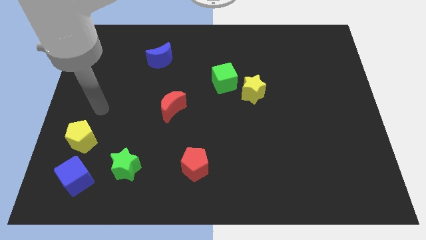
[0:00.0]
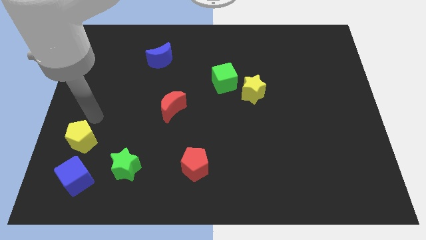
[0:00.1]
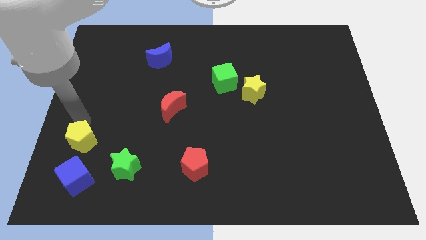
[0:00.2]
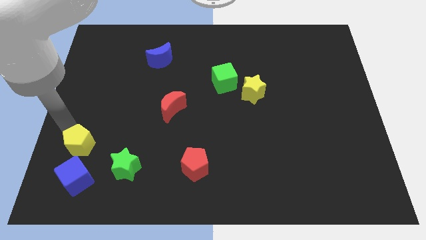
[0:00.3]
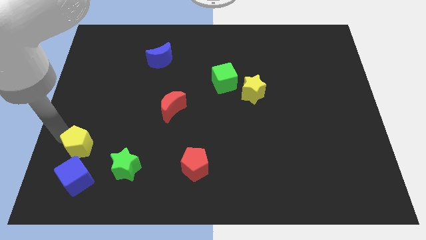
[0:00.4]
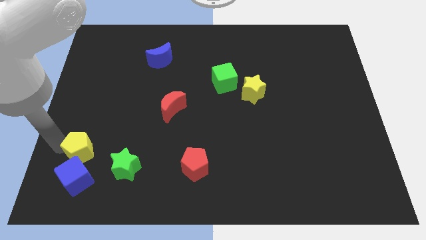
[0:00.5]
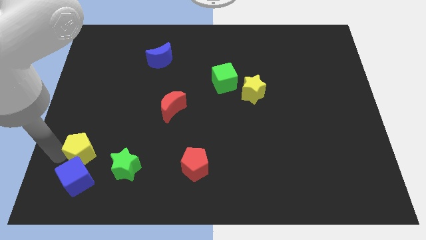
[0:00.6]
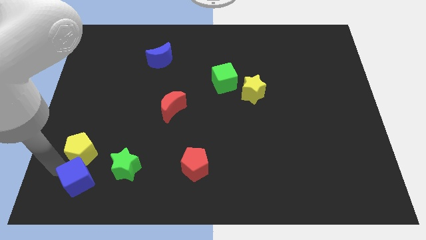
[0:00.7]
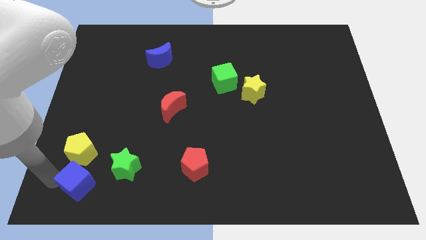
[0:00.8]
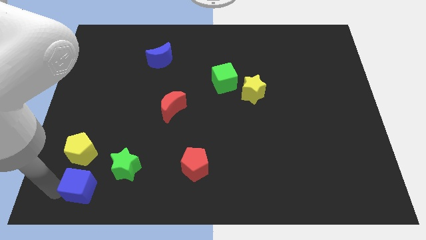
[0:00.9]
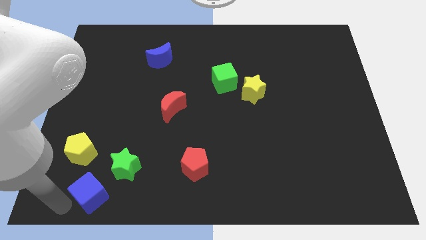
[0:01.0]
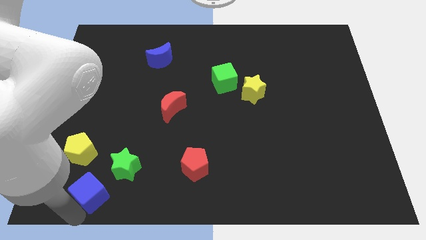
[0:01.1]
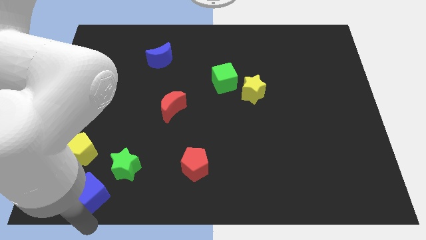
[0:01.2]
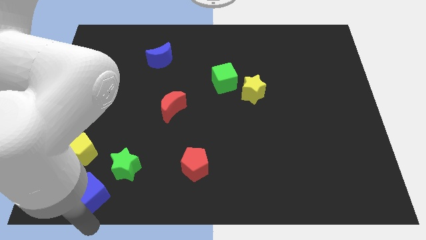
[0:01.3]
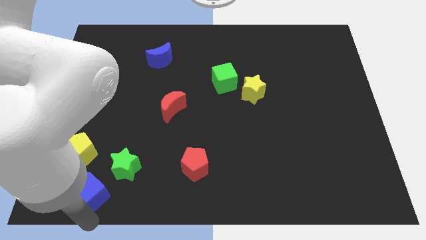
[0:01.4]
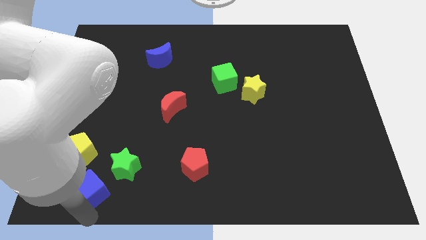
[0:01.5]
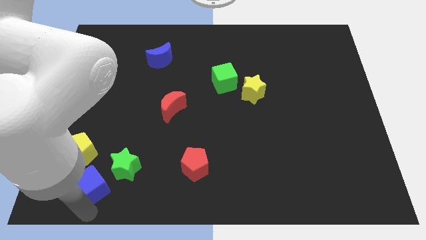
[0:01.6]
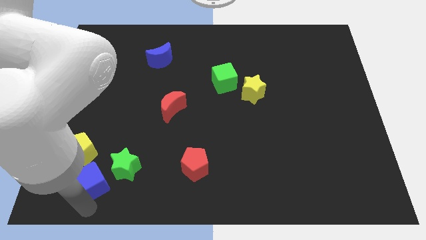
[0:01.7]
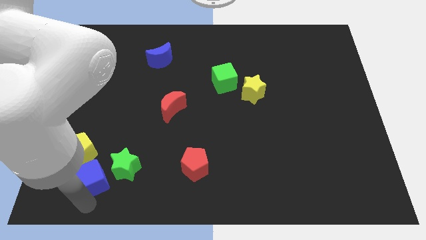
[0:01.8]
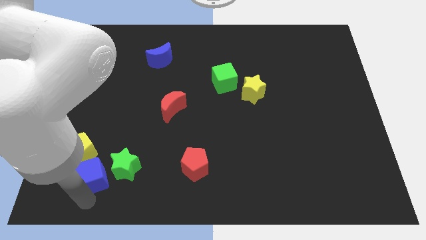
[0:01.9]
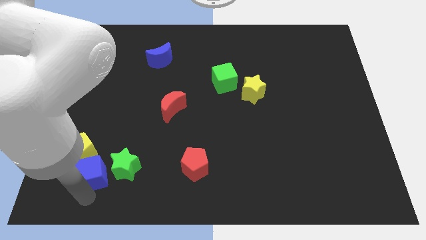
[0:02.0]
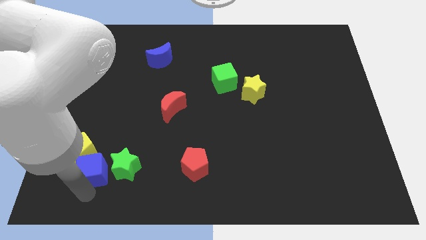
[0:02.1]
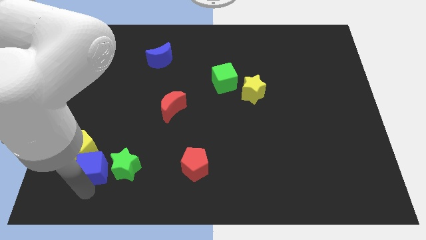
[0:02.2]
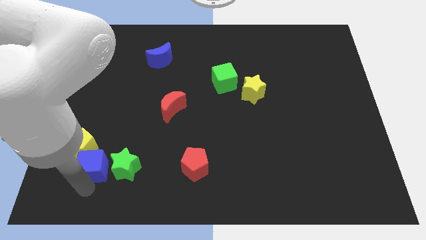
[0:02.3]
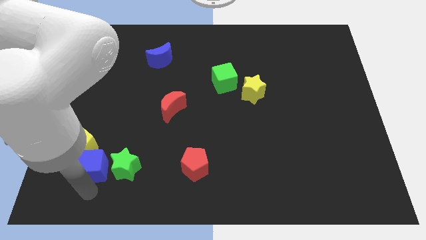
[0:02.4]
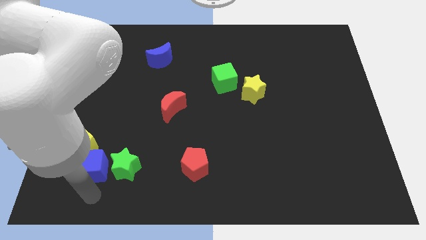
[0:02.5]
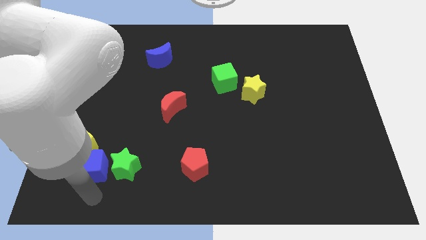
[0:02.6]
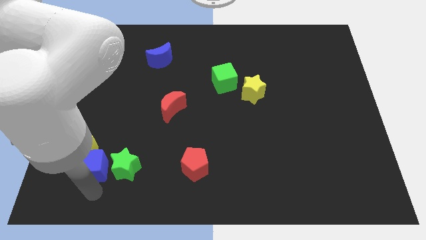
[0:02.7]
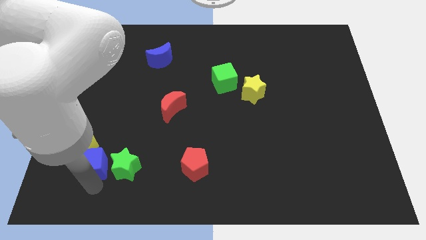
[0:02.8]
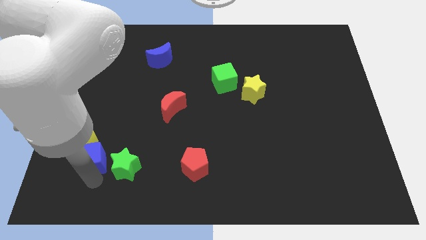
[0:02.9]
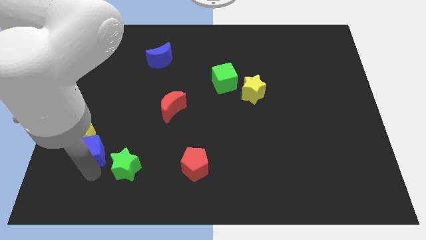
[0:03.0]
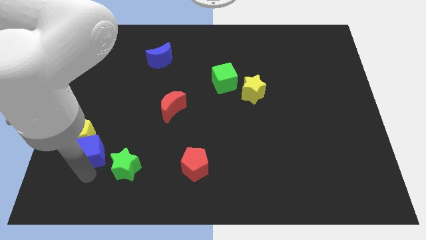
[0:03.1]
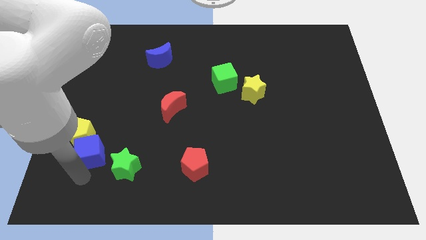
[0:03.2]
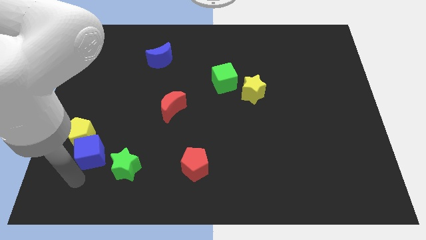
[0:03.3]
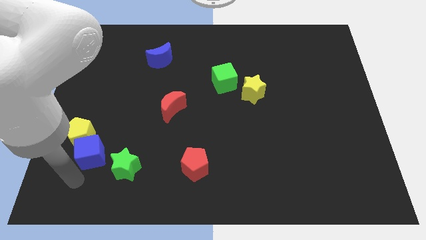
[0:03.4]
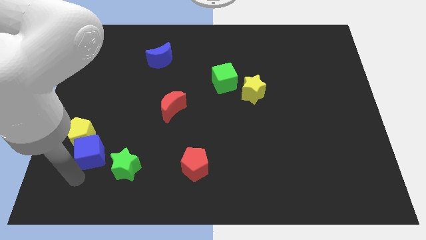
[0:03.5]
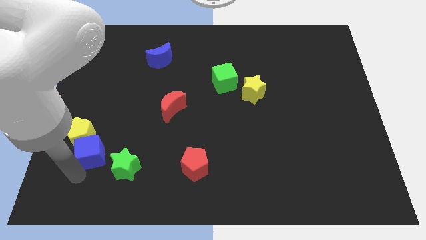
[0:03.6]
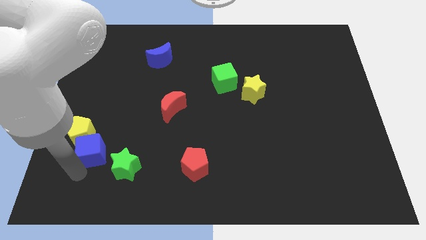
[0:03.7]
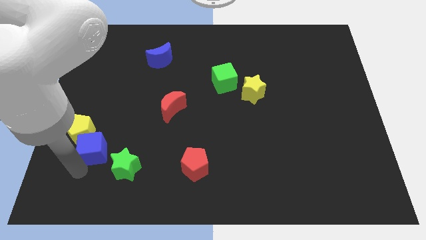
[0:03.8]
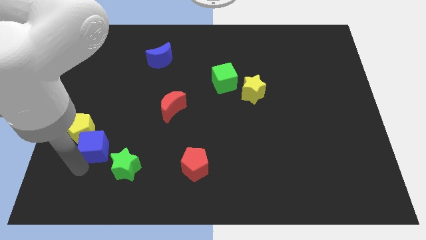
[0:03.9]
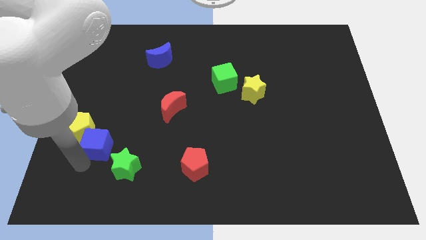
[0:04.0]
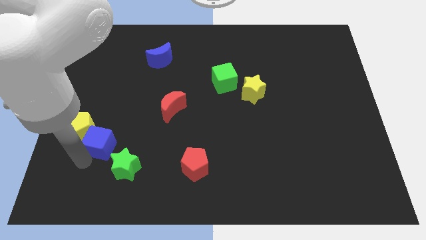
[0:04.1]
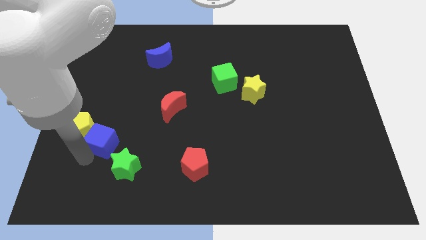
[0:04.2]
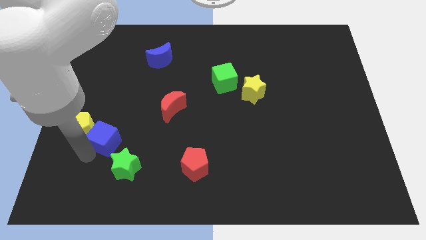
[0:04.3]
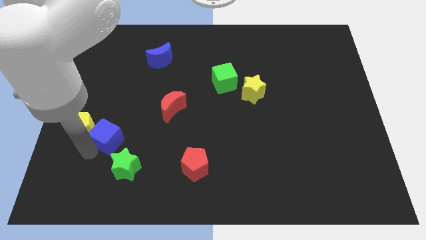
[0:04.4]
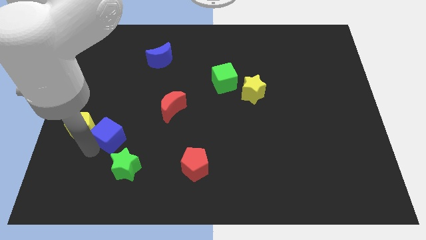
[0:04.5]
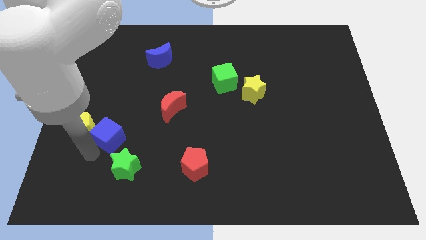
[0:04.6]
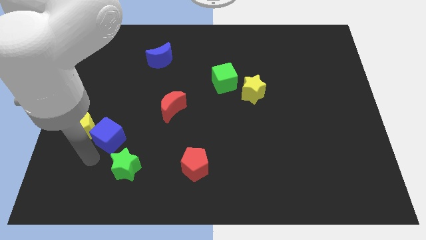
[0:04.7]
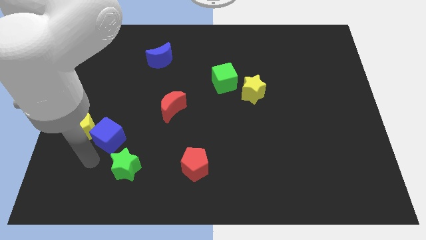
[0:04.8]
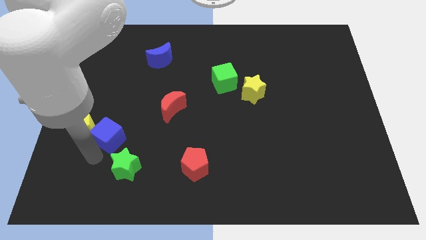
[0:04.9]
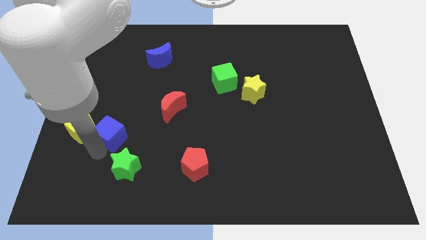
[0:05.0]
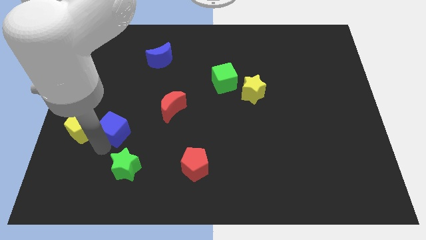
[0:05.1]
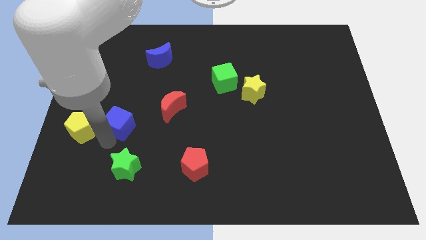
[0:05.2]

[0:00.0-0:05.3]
put the blue cube to the left side of the red moon

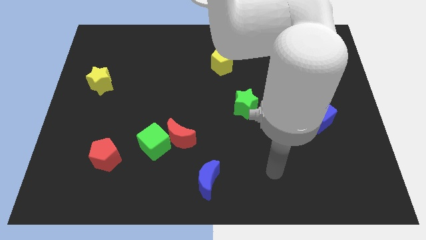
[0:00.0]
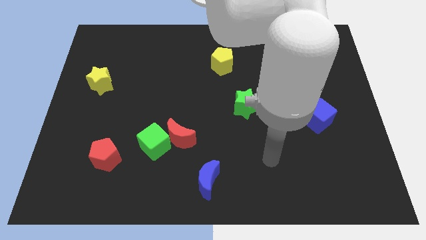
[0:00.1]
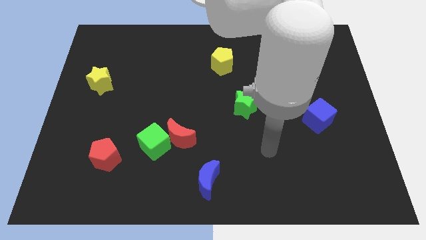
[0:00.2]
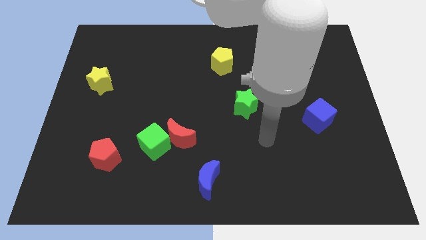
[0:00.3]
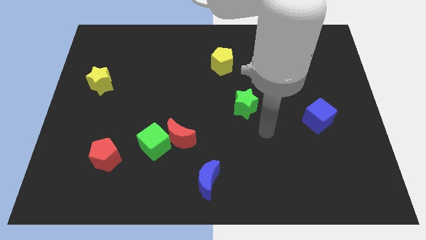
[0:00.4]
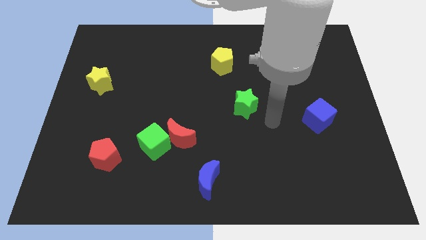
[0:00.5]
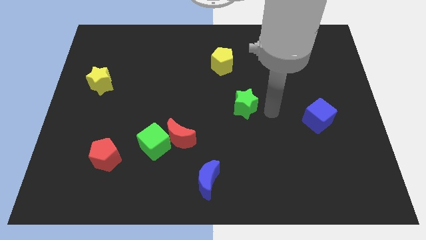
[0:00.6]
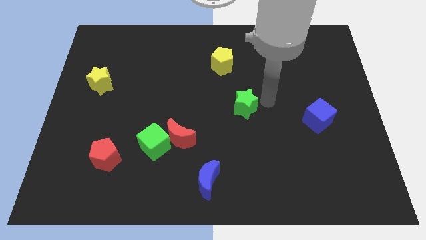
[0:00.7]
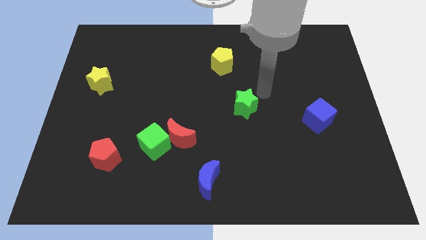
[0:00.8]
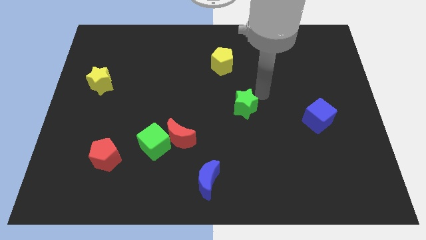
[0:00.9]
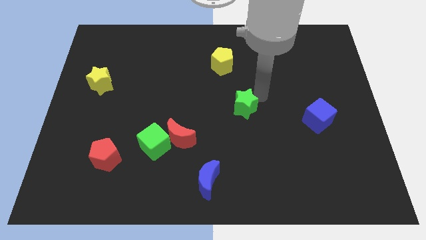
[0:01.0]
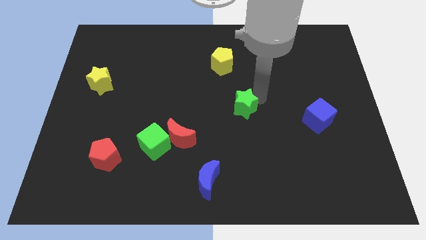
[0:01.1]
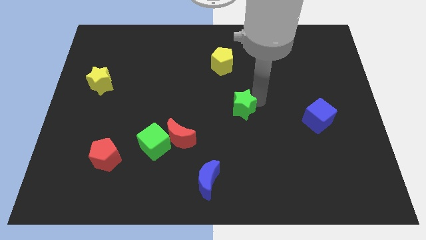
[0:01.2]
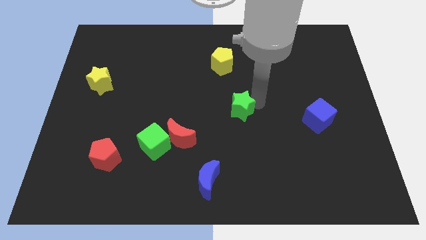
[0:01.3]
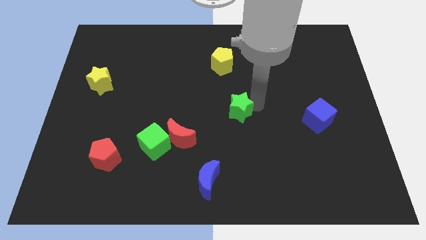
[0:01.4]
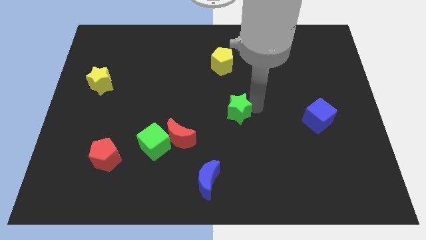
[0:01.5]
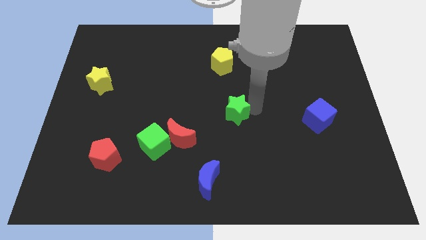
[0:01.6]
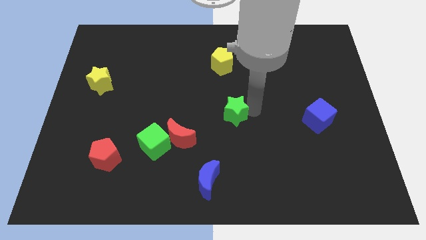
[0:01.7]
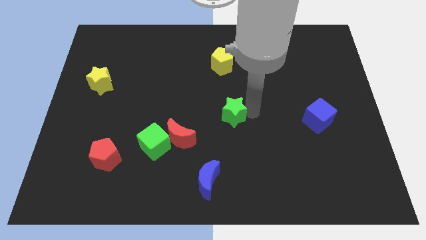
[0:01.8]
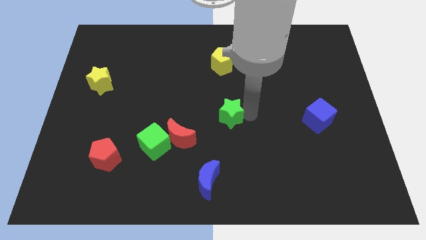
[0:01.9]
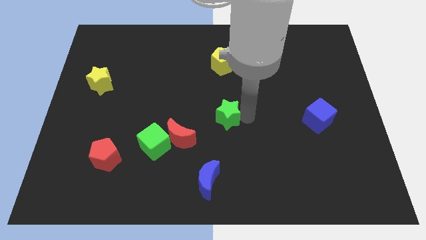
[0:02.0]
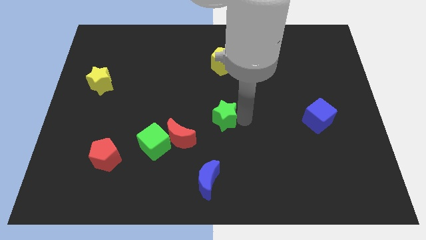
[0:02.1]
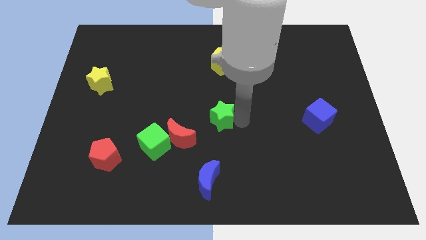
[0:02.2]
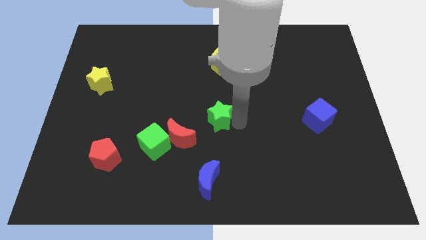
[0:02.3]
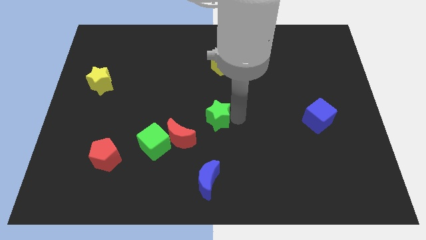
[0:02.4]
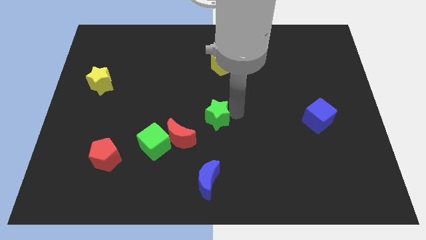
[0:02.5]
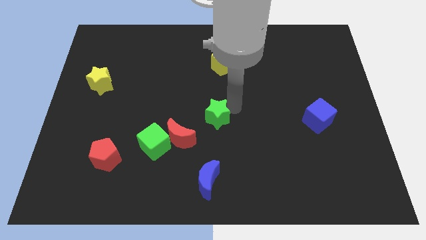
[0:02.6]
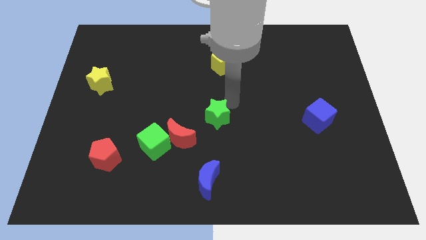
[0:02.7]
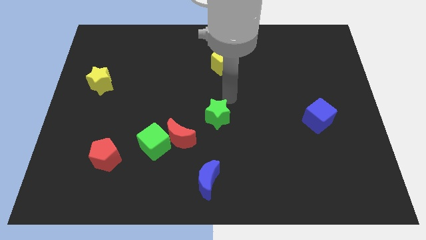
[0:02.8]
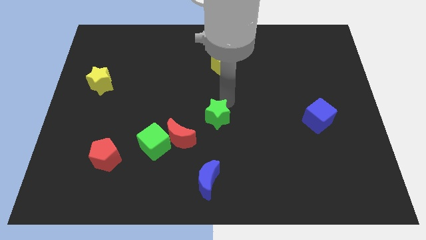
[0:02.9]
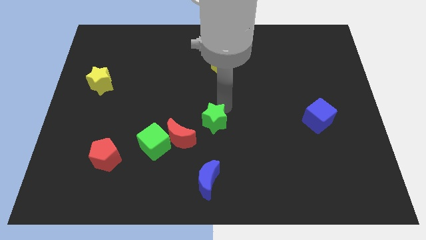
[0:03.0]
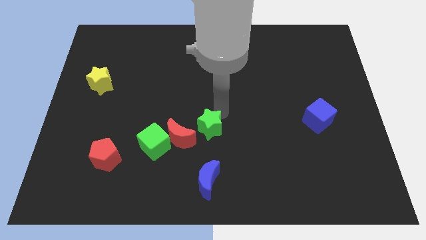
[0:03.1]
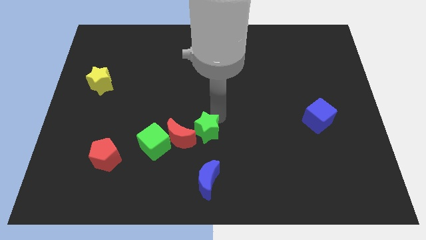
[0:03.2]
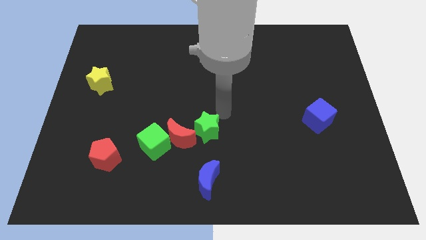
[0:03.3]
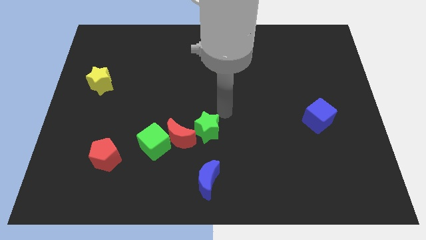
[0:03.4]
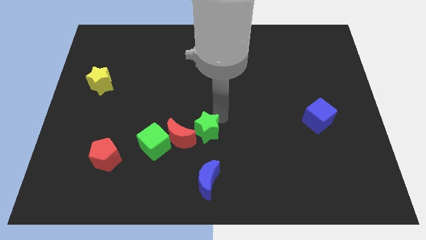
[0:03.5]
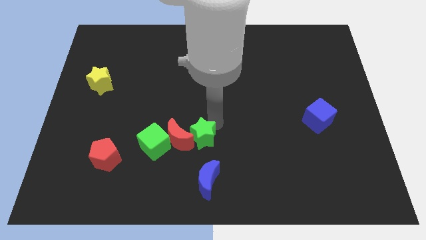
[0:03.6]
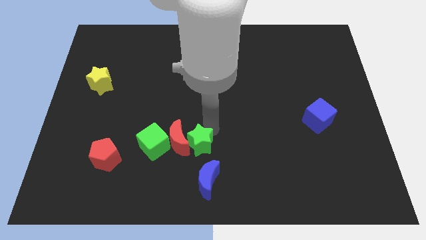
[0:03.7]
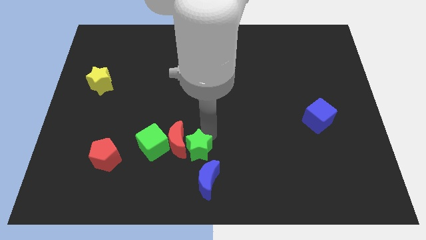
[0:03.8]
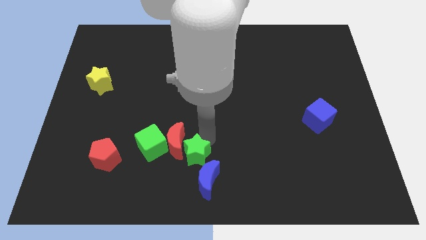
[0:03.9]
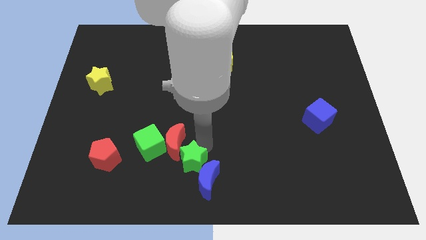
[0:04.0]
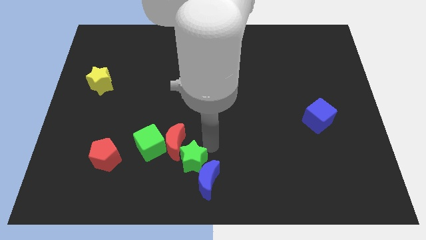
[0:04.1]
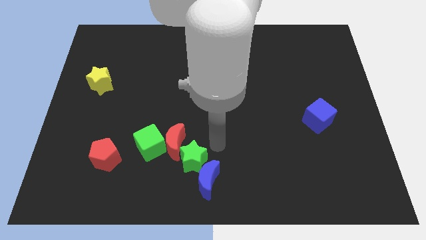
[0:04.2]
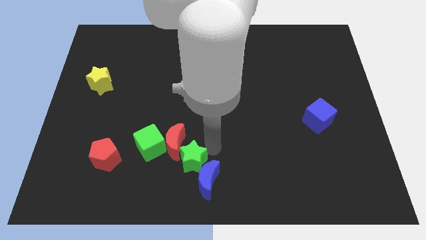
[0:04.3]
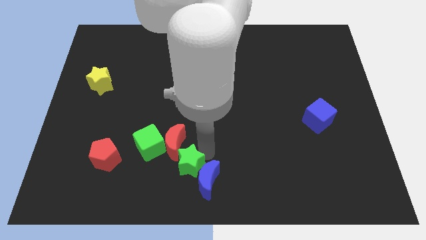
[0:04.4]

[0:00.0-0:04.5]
slide the green star just left of the blue moon
